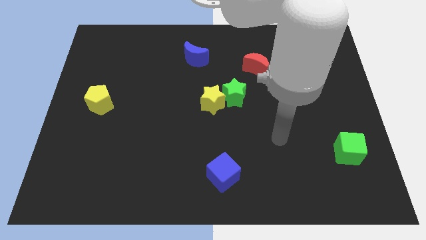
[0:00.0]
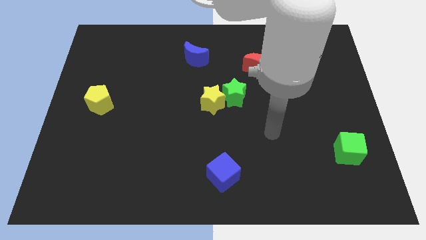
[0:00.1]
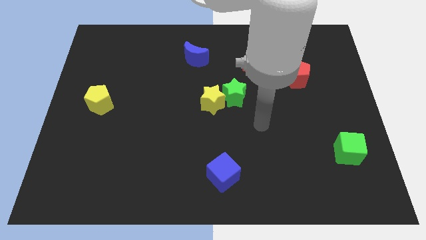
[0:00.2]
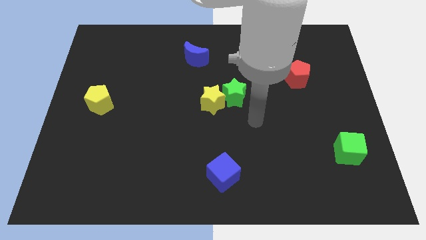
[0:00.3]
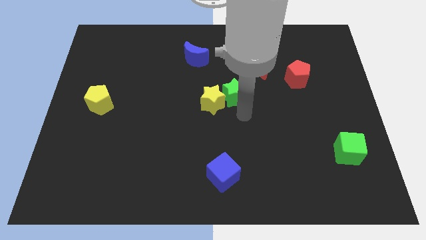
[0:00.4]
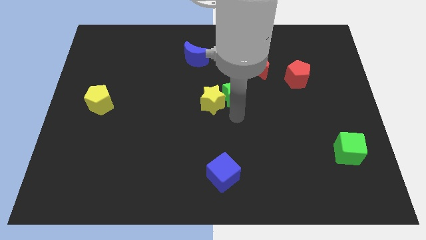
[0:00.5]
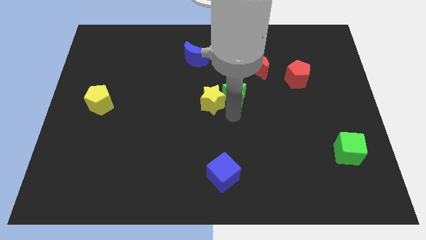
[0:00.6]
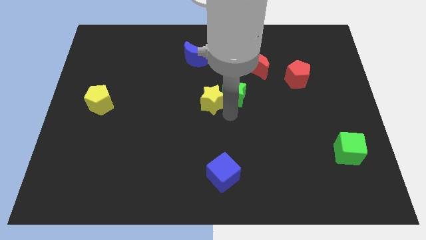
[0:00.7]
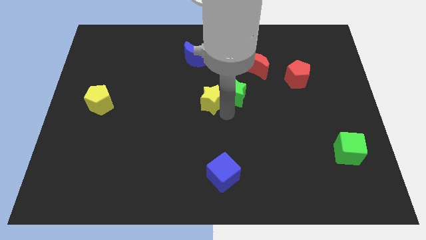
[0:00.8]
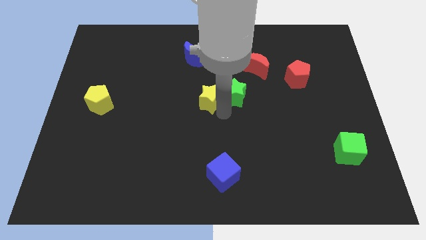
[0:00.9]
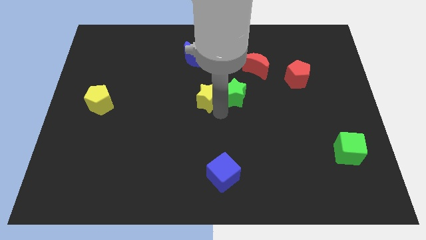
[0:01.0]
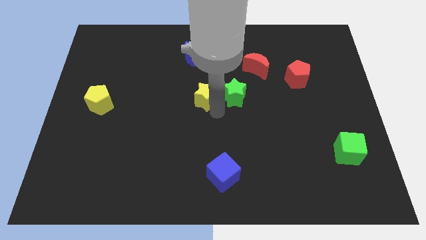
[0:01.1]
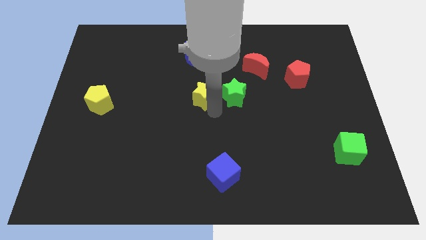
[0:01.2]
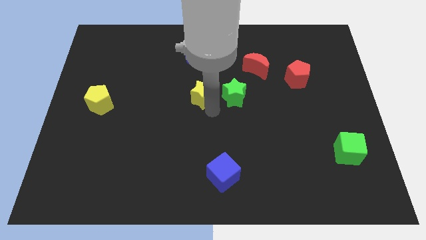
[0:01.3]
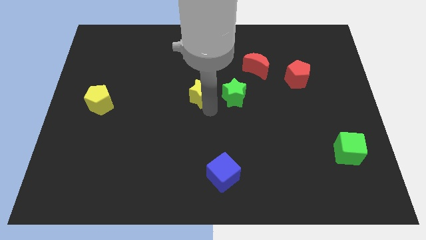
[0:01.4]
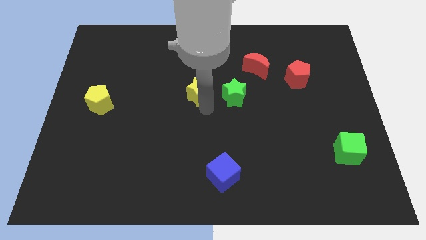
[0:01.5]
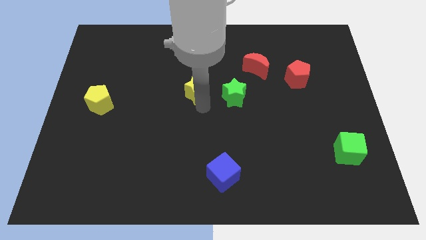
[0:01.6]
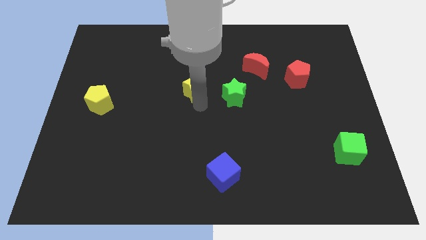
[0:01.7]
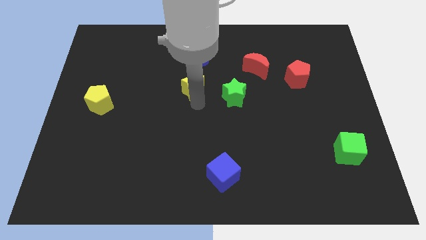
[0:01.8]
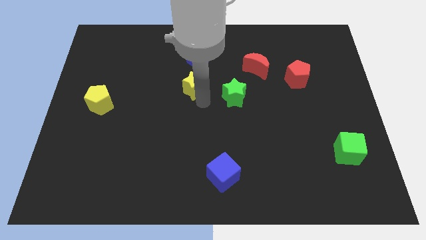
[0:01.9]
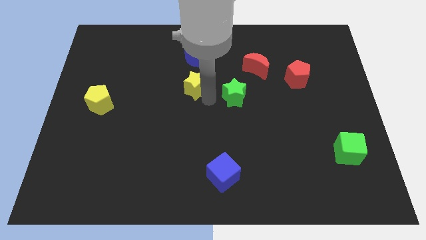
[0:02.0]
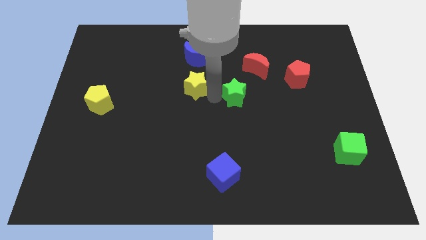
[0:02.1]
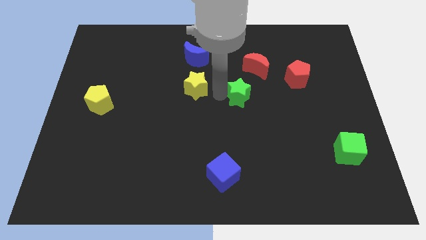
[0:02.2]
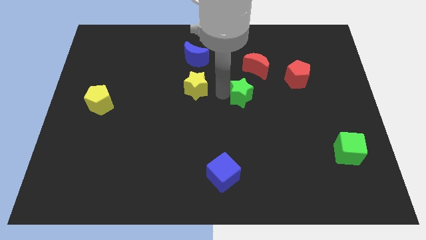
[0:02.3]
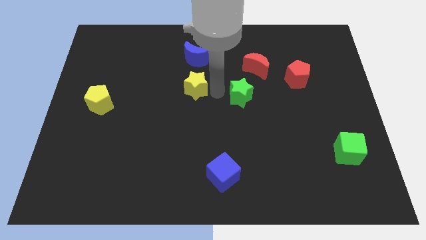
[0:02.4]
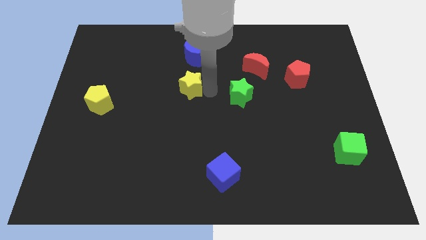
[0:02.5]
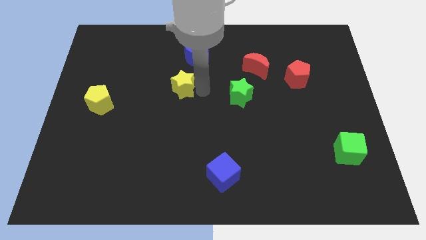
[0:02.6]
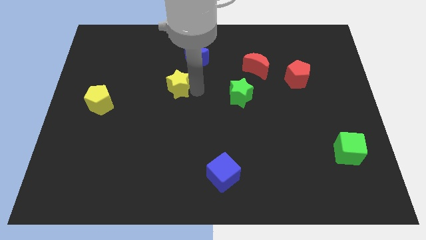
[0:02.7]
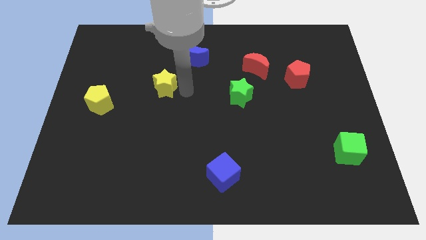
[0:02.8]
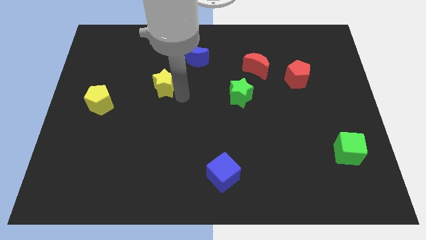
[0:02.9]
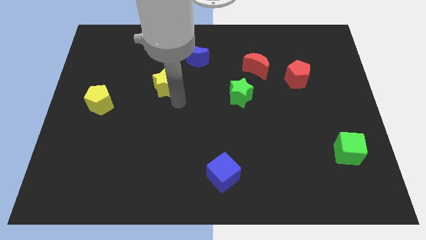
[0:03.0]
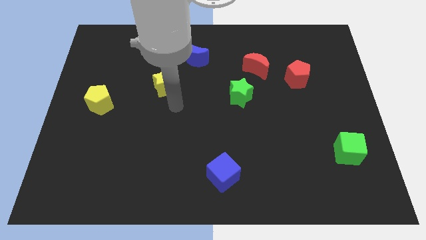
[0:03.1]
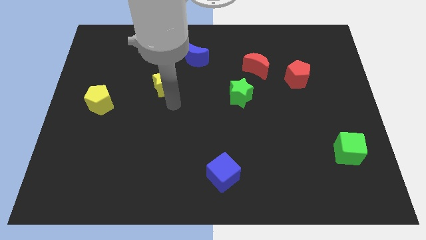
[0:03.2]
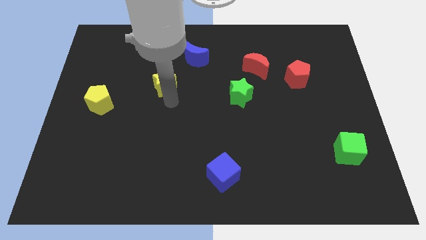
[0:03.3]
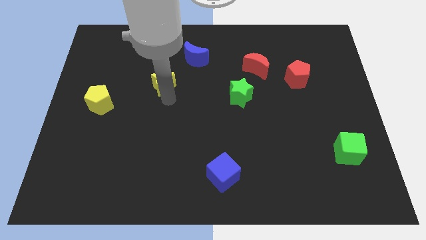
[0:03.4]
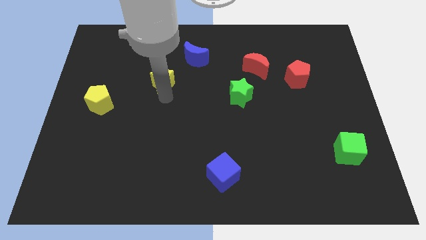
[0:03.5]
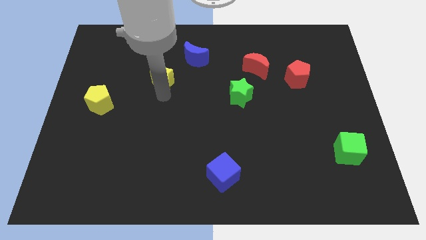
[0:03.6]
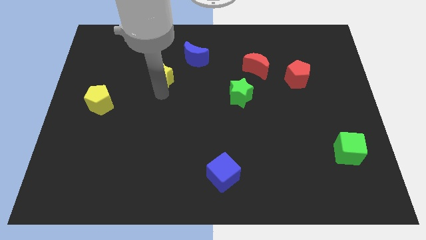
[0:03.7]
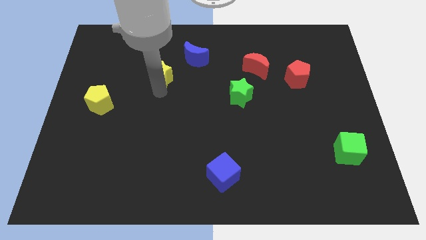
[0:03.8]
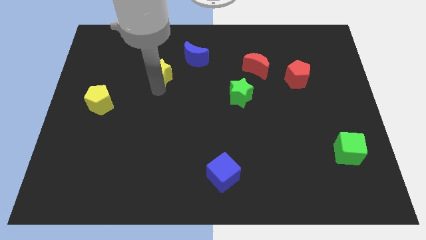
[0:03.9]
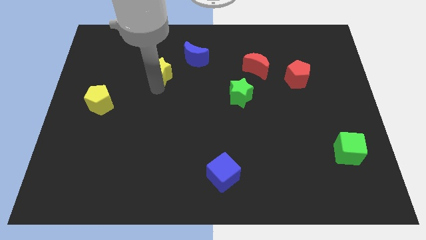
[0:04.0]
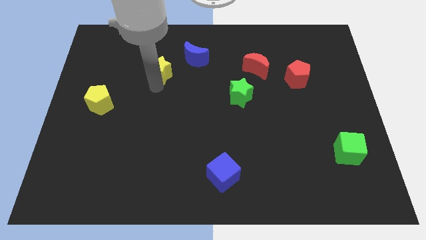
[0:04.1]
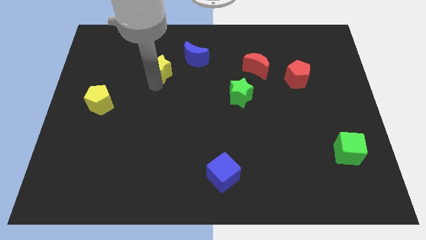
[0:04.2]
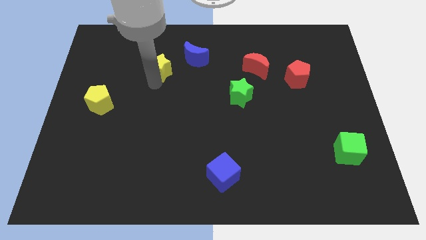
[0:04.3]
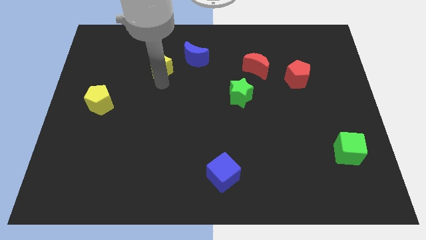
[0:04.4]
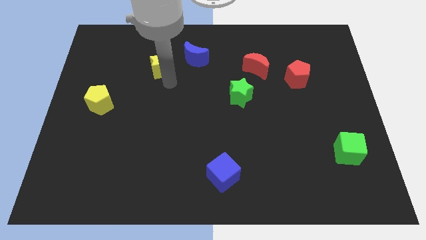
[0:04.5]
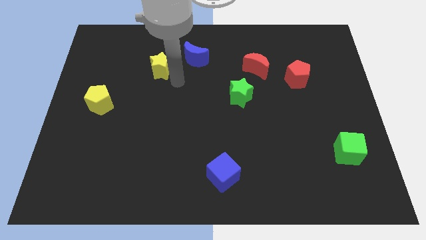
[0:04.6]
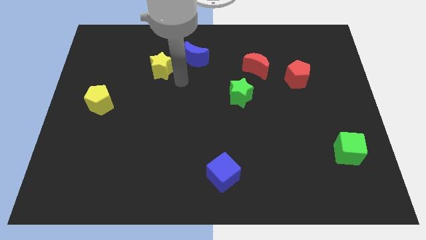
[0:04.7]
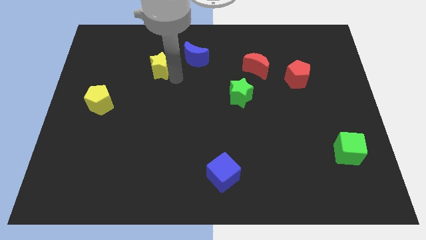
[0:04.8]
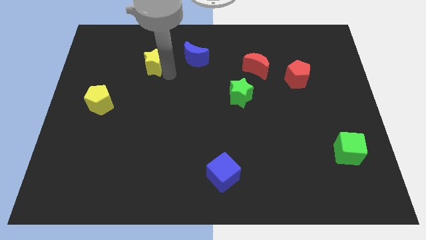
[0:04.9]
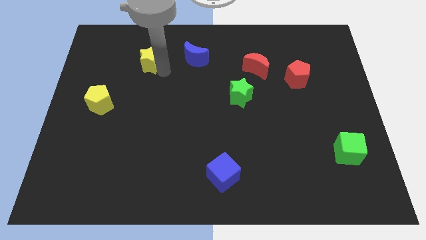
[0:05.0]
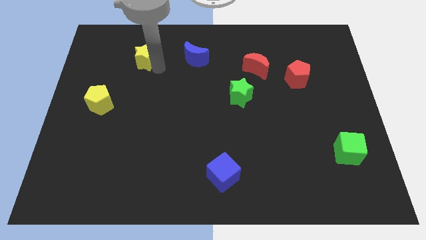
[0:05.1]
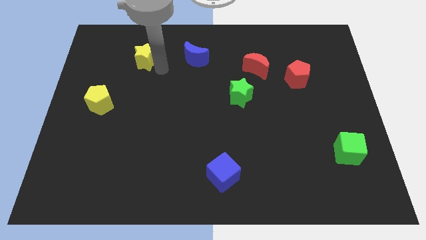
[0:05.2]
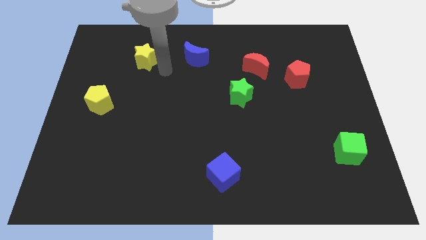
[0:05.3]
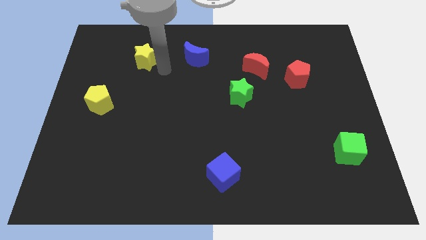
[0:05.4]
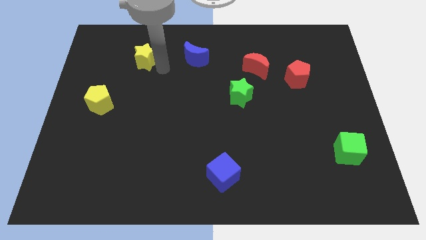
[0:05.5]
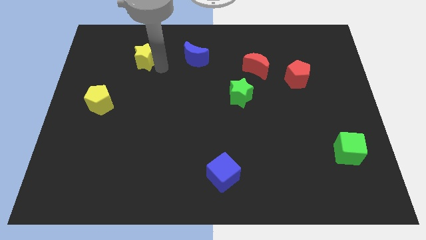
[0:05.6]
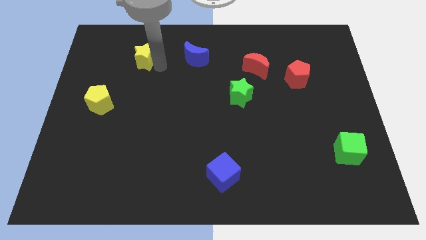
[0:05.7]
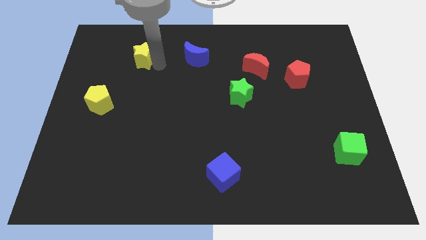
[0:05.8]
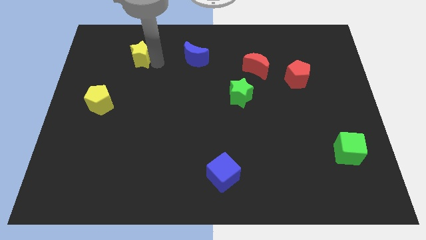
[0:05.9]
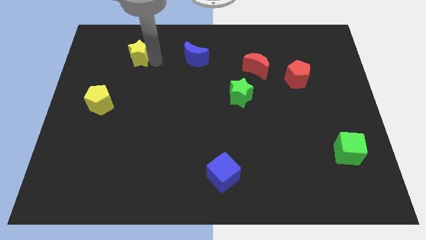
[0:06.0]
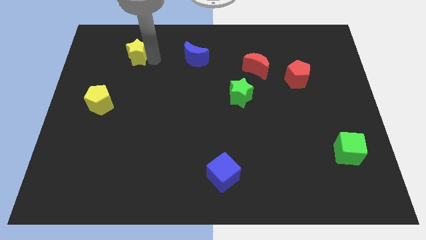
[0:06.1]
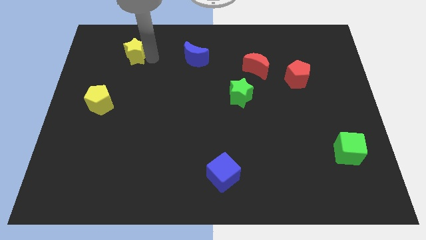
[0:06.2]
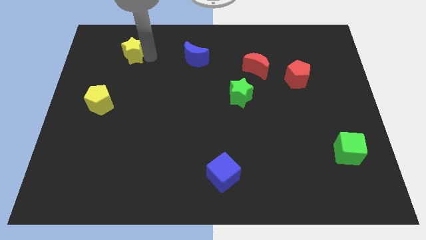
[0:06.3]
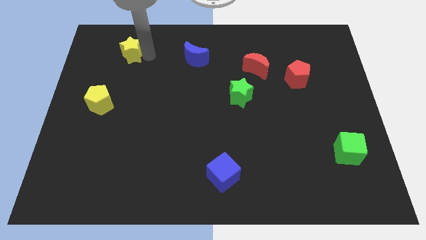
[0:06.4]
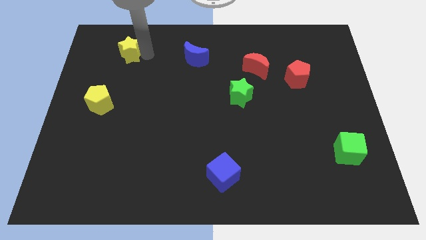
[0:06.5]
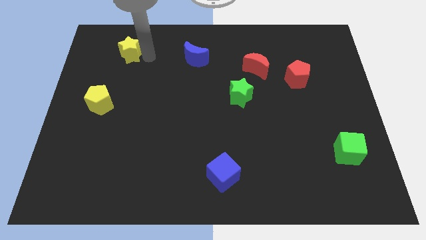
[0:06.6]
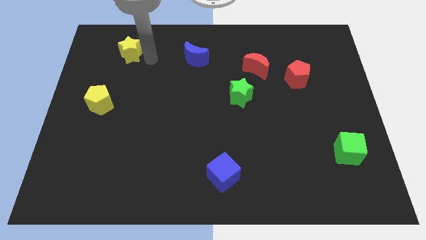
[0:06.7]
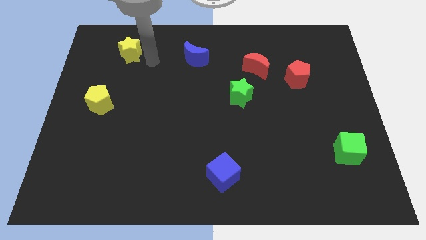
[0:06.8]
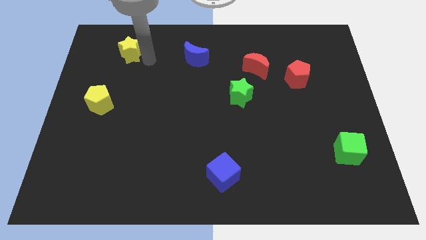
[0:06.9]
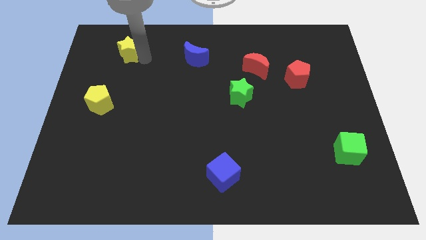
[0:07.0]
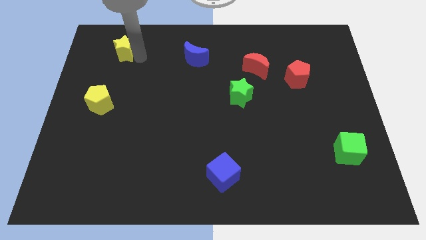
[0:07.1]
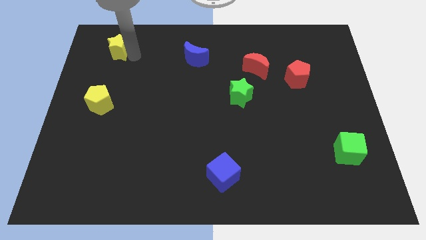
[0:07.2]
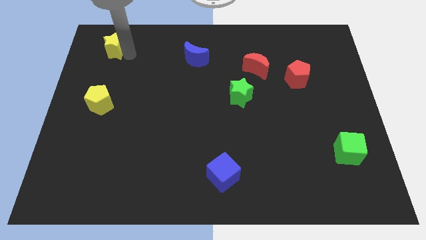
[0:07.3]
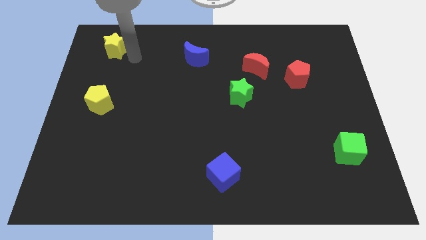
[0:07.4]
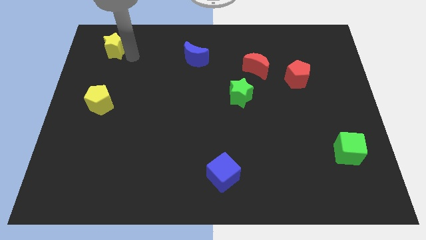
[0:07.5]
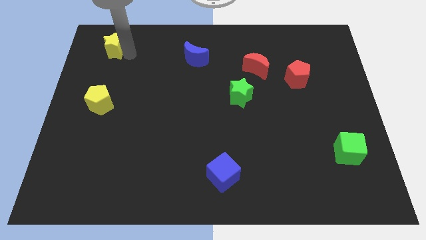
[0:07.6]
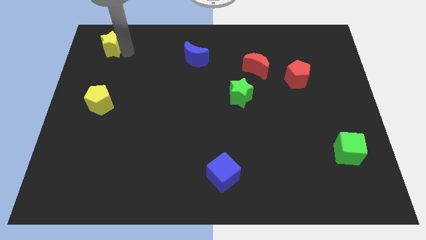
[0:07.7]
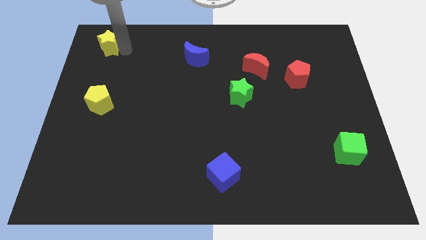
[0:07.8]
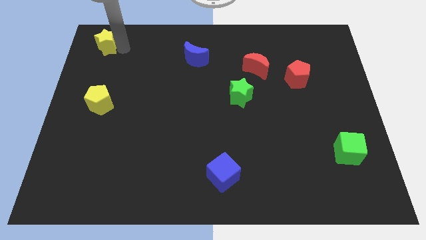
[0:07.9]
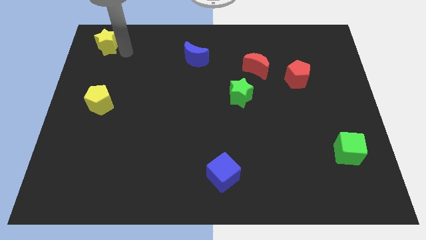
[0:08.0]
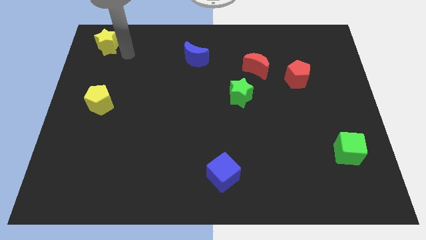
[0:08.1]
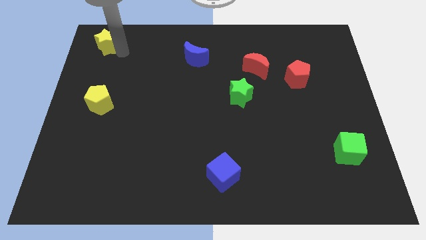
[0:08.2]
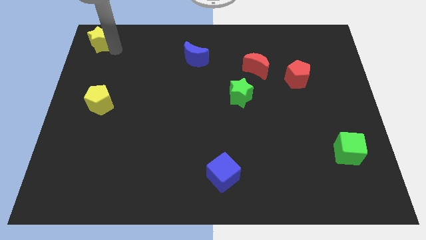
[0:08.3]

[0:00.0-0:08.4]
move the yellow star to the upper left corner
